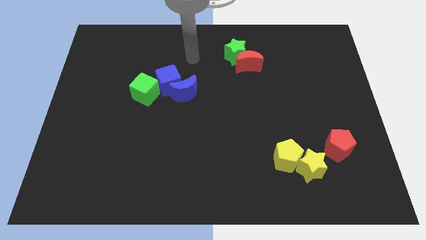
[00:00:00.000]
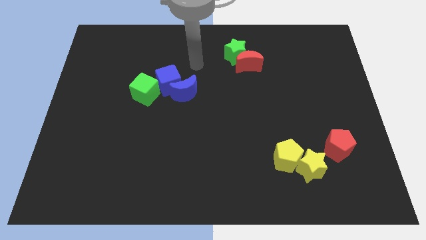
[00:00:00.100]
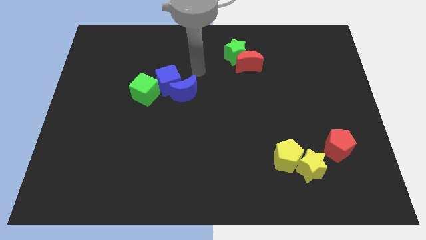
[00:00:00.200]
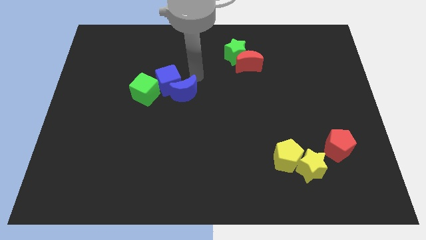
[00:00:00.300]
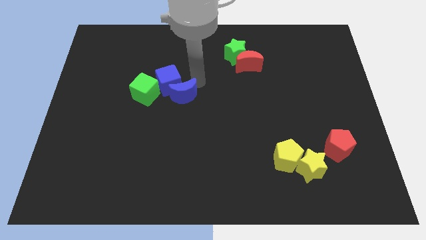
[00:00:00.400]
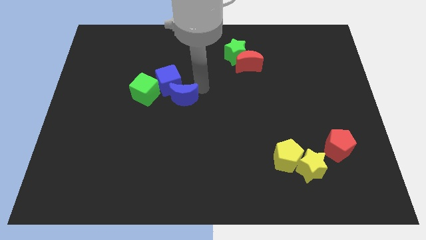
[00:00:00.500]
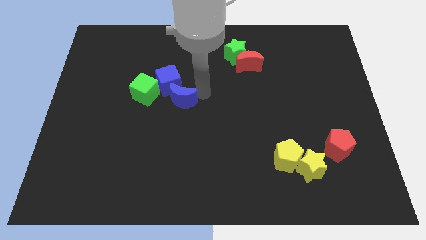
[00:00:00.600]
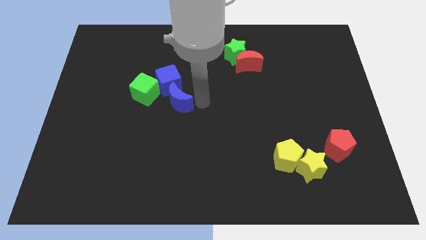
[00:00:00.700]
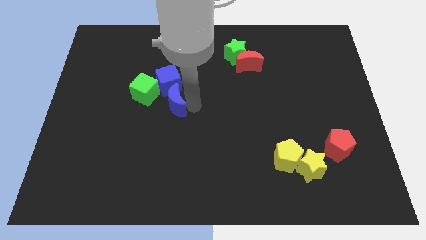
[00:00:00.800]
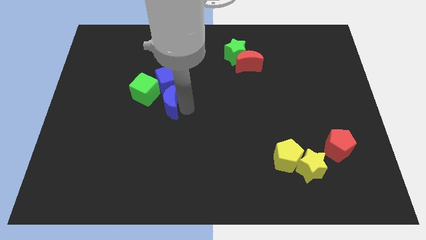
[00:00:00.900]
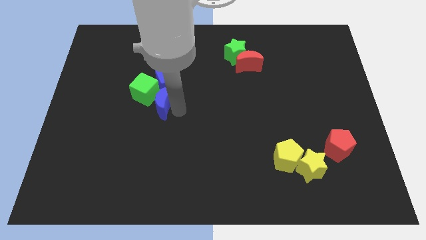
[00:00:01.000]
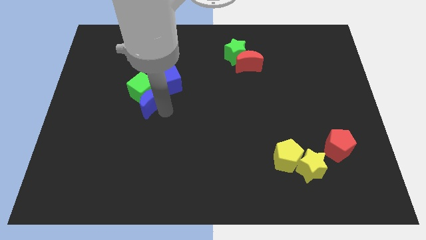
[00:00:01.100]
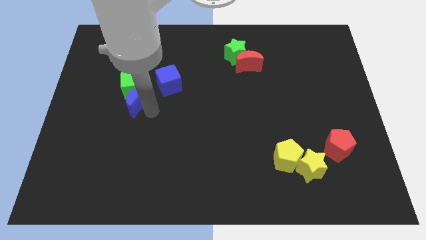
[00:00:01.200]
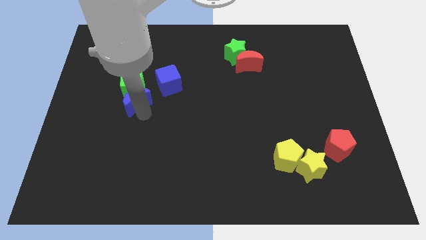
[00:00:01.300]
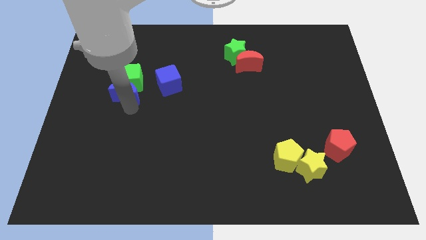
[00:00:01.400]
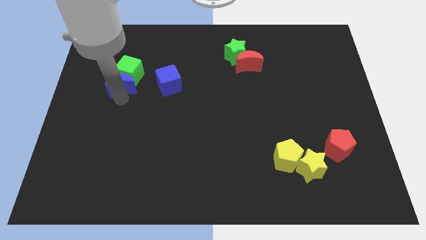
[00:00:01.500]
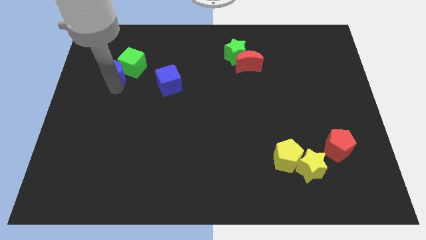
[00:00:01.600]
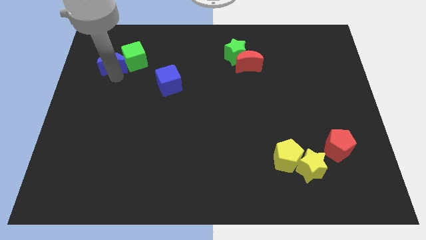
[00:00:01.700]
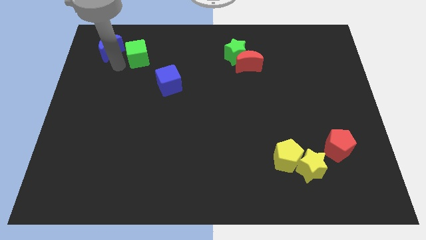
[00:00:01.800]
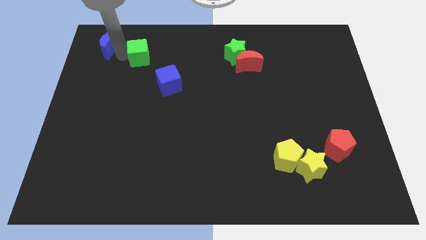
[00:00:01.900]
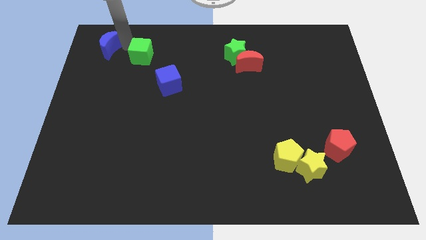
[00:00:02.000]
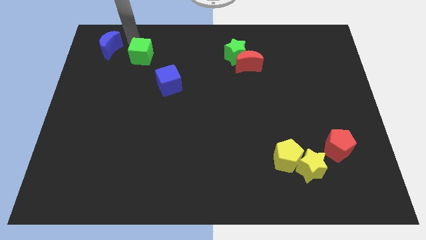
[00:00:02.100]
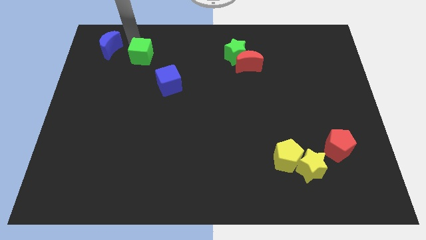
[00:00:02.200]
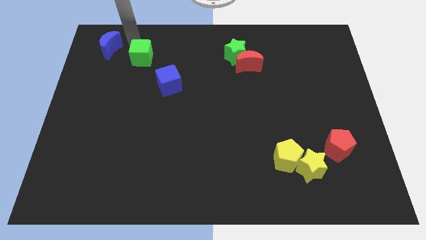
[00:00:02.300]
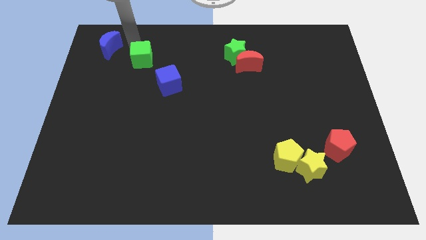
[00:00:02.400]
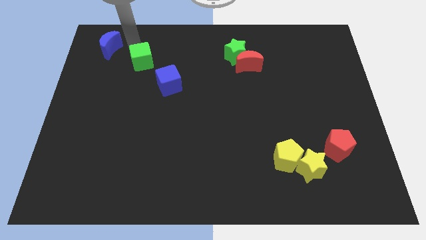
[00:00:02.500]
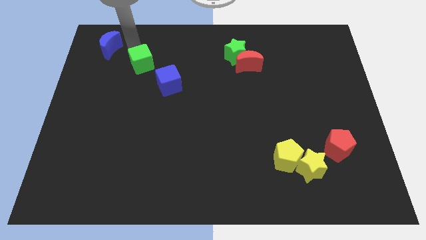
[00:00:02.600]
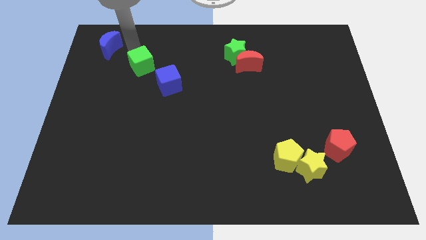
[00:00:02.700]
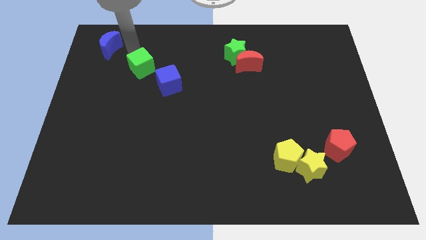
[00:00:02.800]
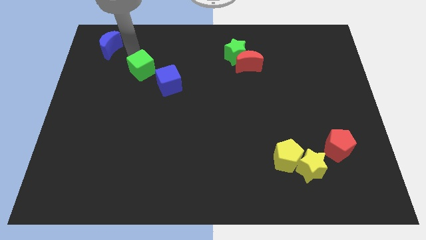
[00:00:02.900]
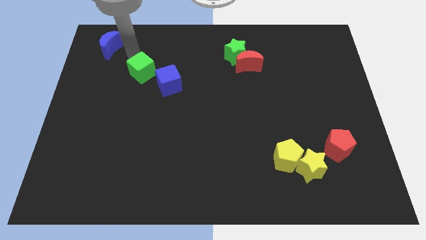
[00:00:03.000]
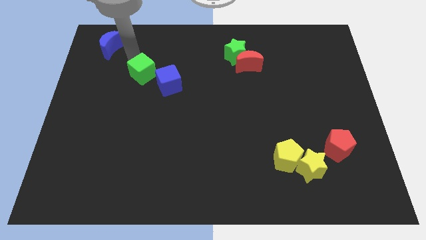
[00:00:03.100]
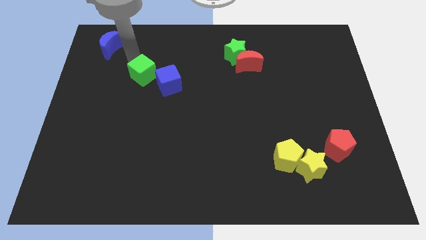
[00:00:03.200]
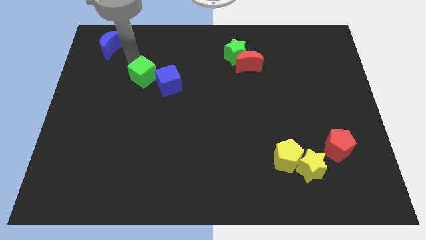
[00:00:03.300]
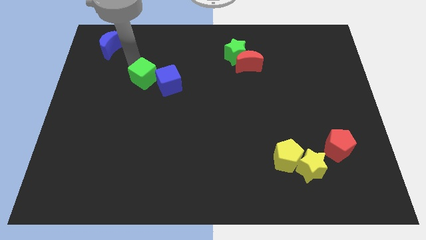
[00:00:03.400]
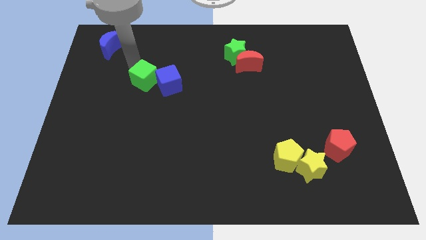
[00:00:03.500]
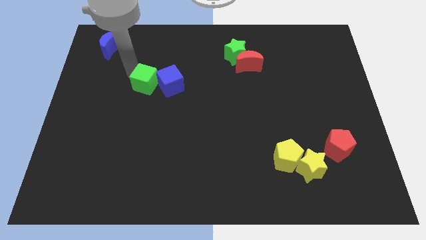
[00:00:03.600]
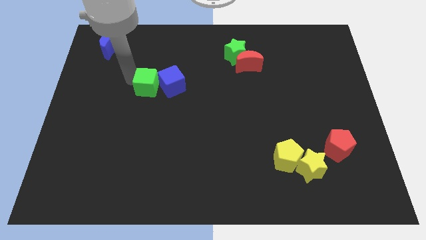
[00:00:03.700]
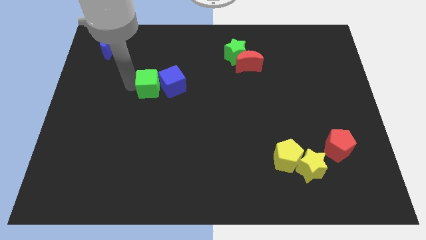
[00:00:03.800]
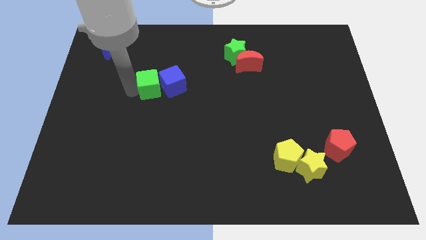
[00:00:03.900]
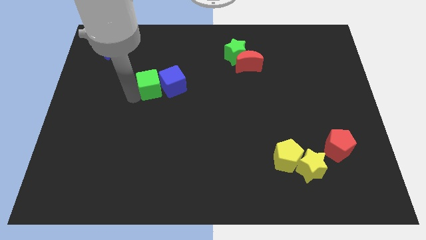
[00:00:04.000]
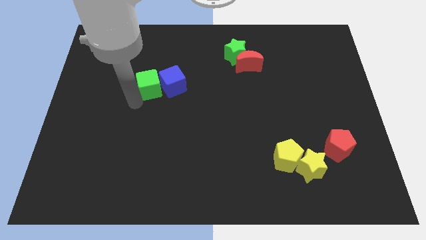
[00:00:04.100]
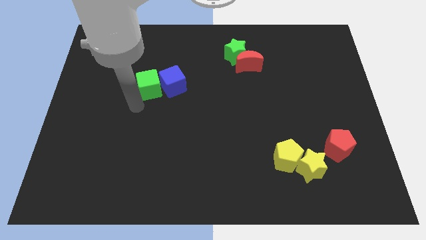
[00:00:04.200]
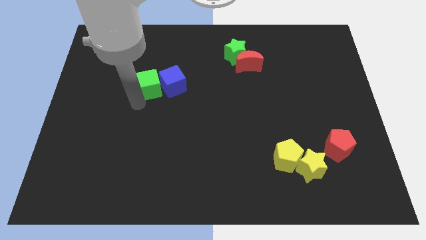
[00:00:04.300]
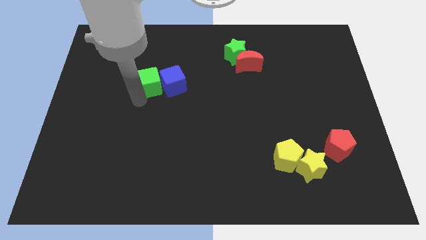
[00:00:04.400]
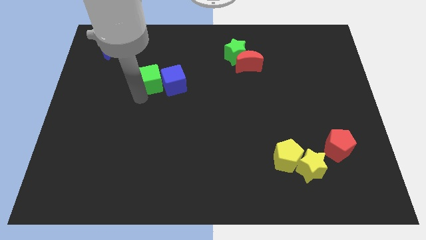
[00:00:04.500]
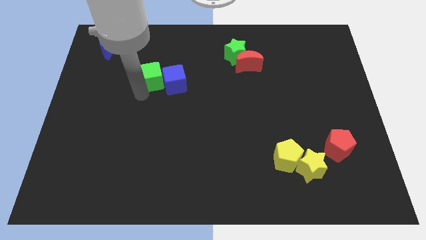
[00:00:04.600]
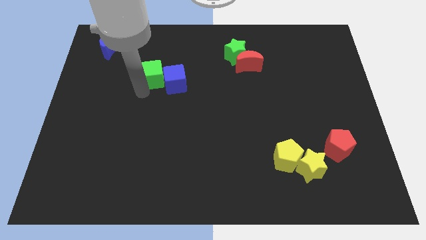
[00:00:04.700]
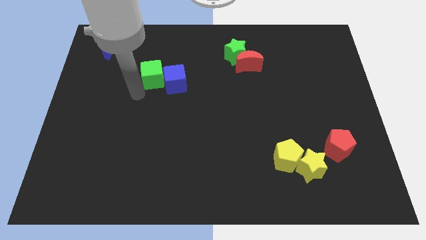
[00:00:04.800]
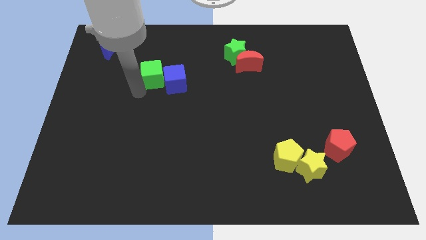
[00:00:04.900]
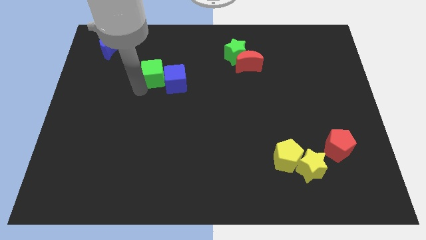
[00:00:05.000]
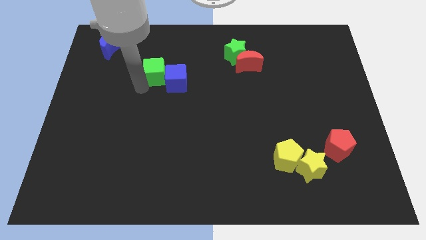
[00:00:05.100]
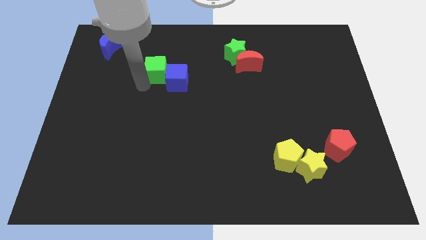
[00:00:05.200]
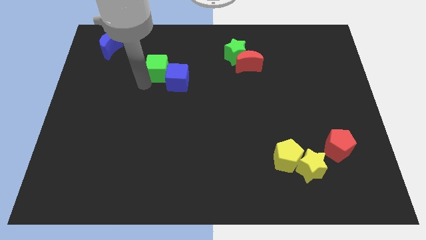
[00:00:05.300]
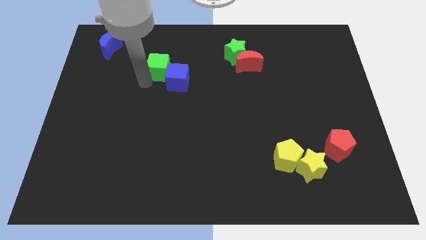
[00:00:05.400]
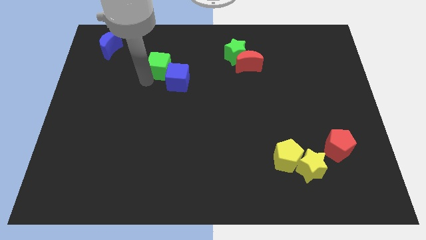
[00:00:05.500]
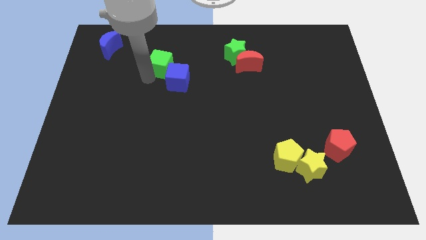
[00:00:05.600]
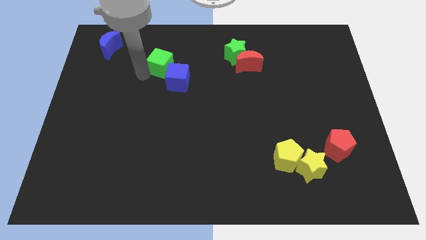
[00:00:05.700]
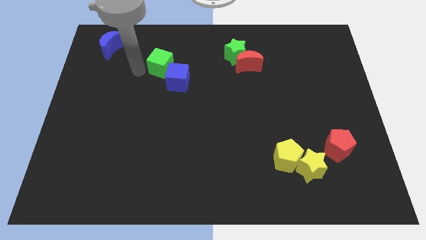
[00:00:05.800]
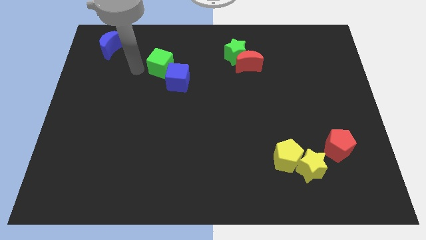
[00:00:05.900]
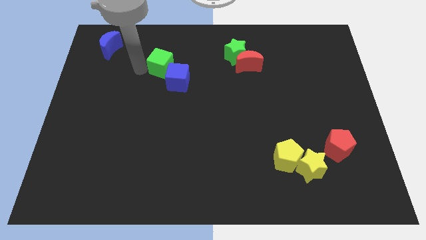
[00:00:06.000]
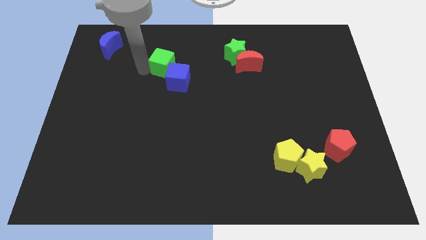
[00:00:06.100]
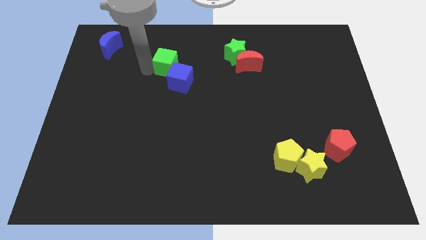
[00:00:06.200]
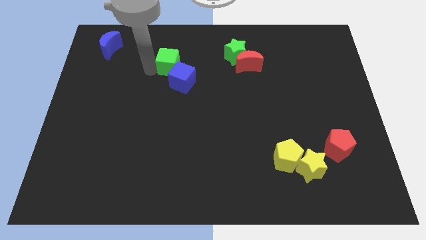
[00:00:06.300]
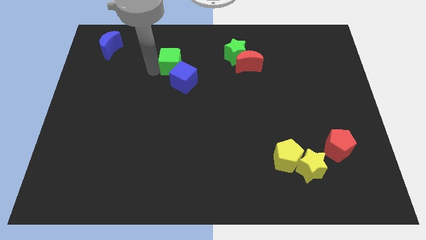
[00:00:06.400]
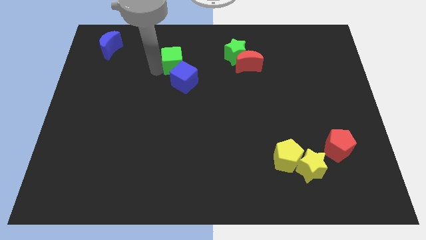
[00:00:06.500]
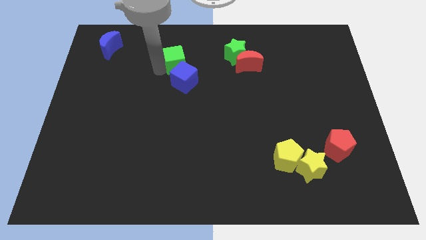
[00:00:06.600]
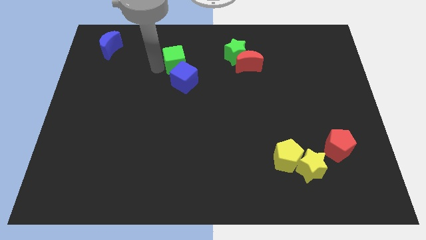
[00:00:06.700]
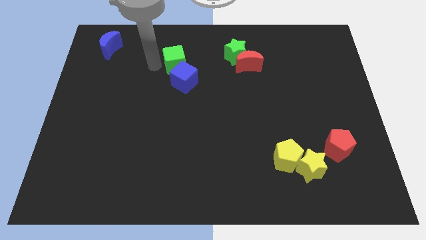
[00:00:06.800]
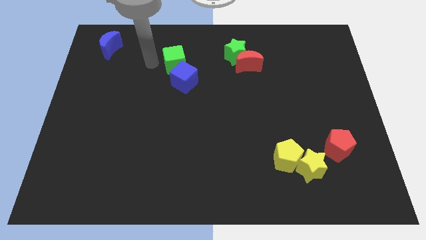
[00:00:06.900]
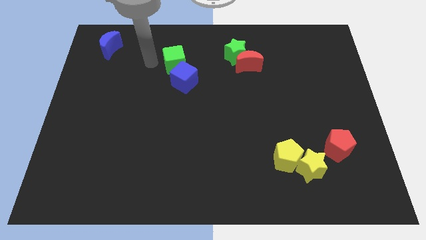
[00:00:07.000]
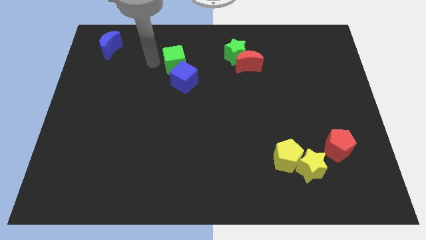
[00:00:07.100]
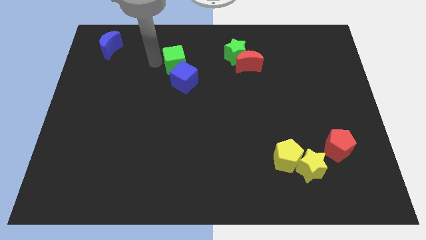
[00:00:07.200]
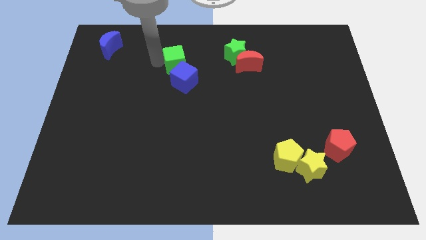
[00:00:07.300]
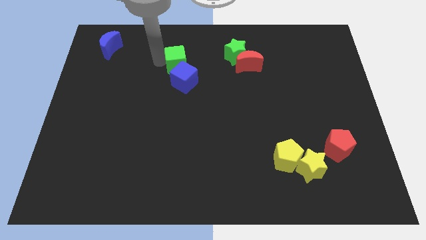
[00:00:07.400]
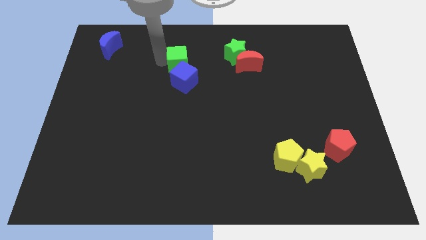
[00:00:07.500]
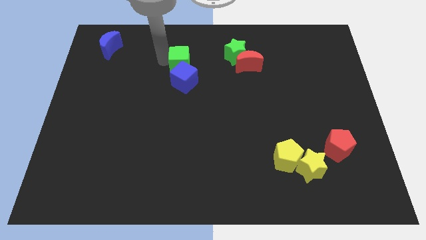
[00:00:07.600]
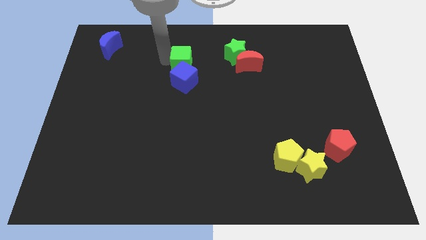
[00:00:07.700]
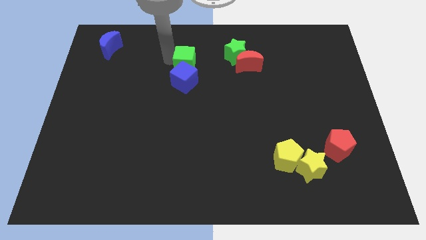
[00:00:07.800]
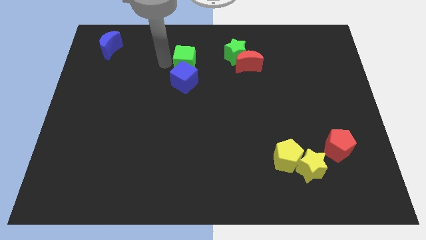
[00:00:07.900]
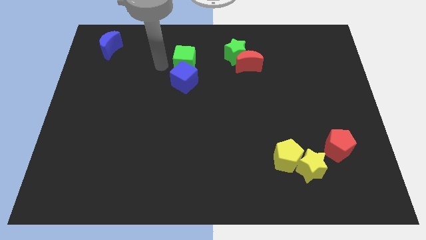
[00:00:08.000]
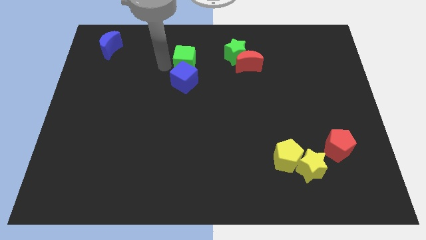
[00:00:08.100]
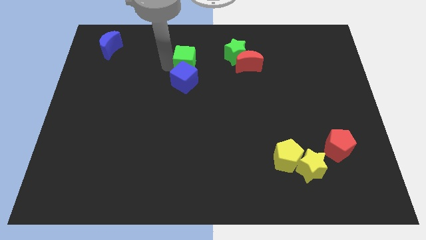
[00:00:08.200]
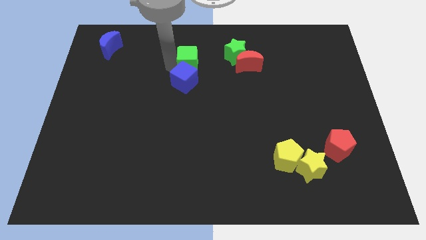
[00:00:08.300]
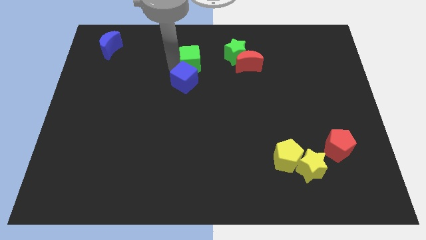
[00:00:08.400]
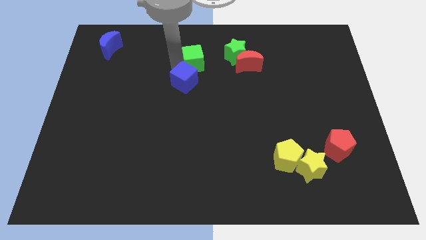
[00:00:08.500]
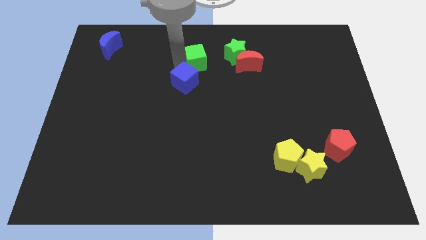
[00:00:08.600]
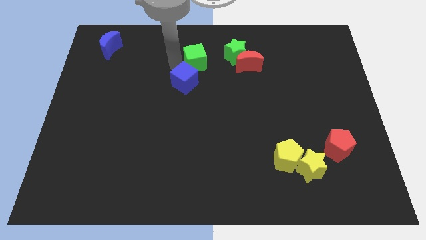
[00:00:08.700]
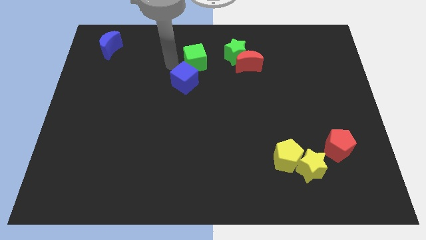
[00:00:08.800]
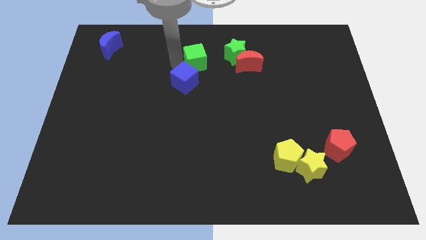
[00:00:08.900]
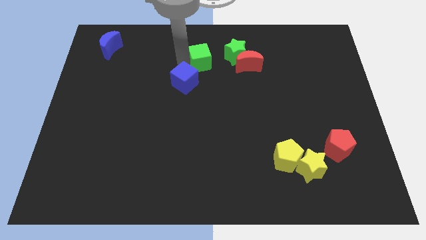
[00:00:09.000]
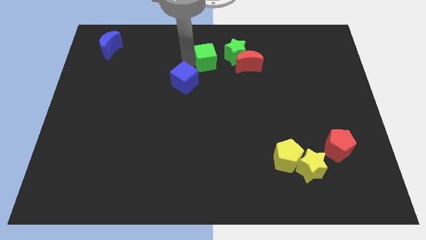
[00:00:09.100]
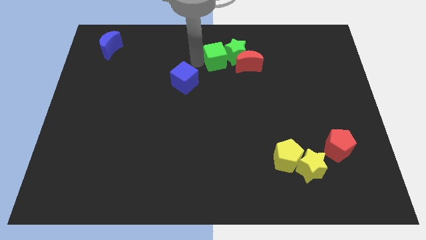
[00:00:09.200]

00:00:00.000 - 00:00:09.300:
slide the green cube towards the green star
